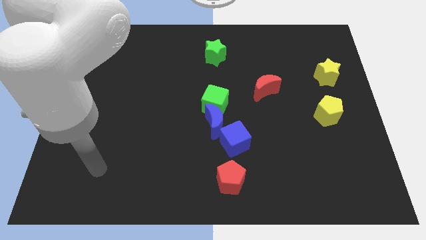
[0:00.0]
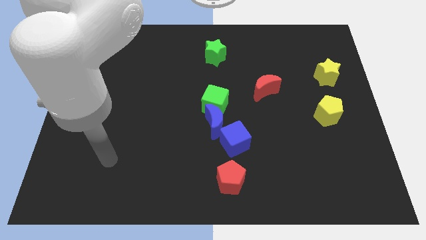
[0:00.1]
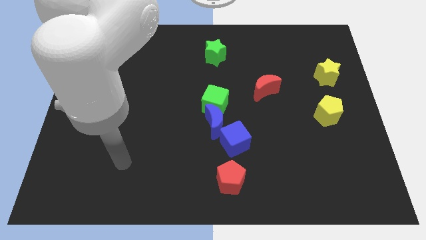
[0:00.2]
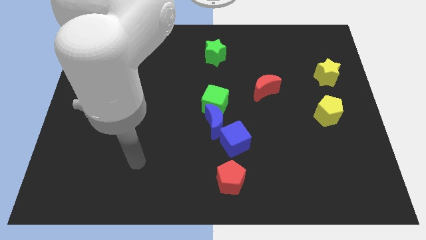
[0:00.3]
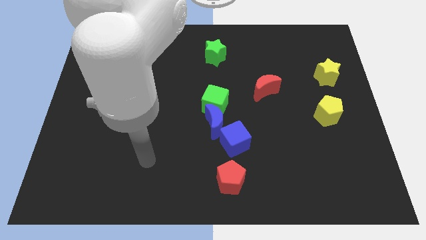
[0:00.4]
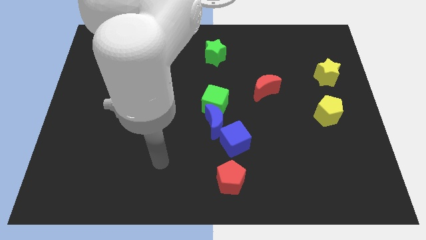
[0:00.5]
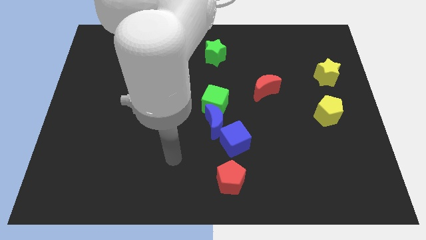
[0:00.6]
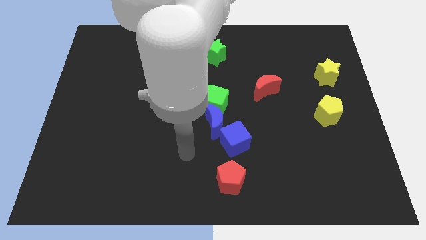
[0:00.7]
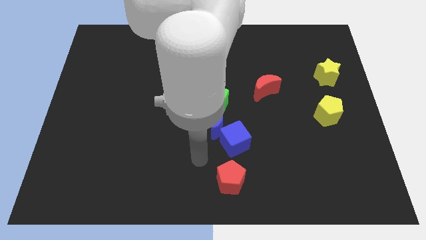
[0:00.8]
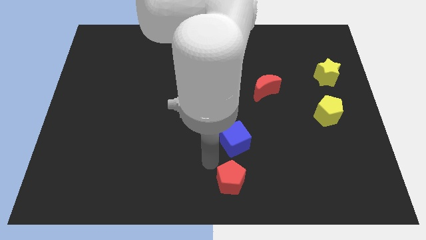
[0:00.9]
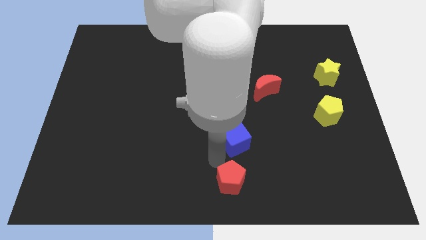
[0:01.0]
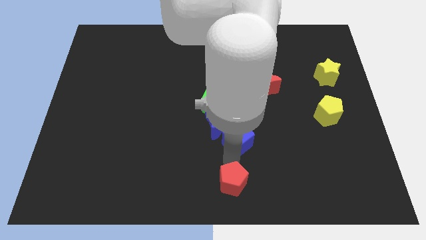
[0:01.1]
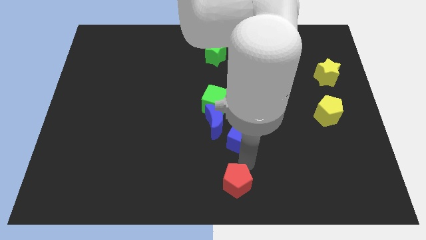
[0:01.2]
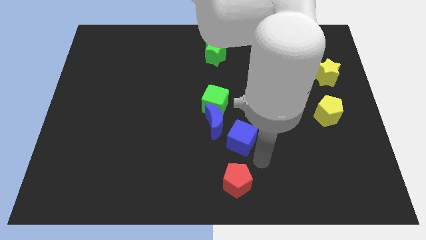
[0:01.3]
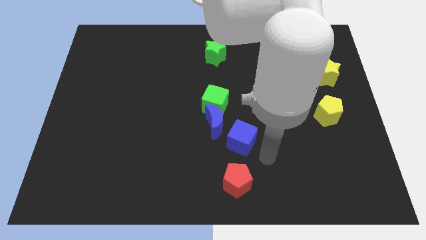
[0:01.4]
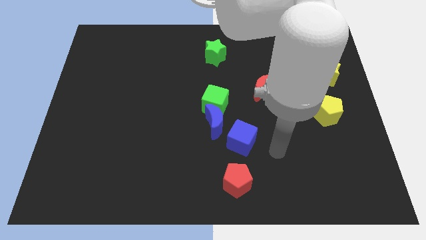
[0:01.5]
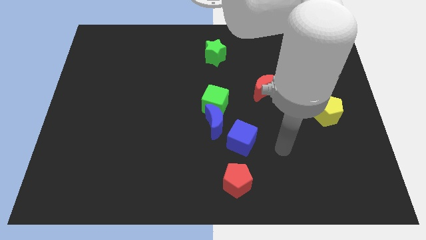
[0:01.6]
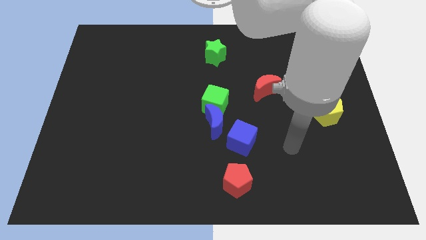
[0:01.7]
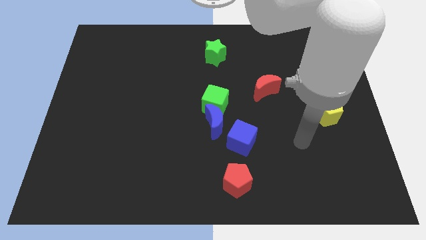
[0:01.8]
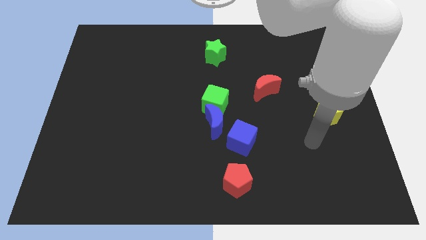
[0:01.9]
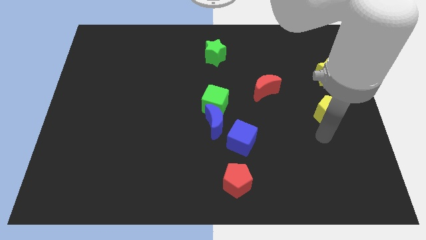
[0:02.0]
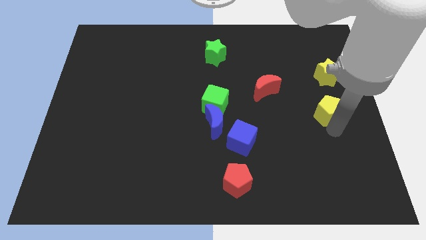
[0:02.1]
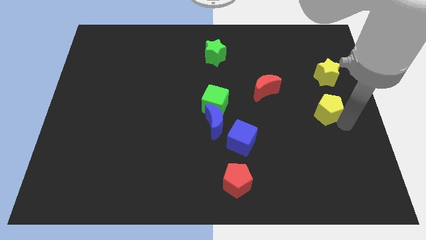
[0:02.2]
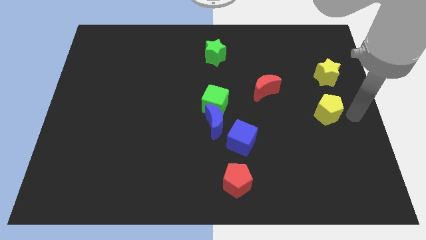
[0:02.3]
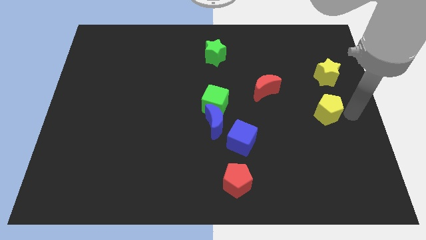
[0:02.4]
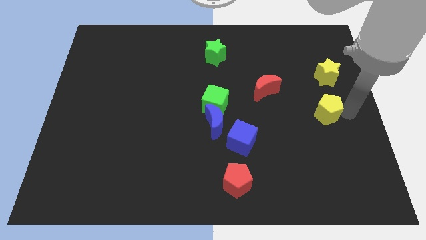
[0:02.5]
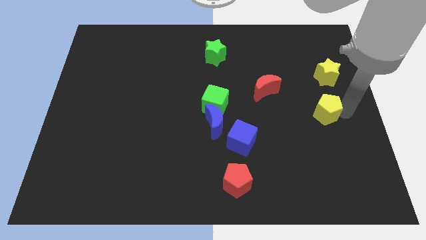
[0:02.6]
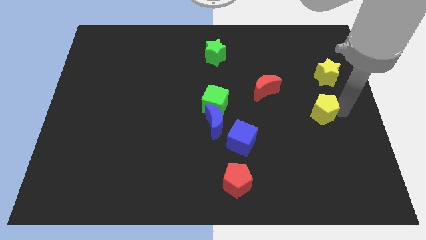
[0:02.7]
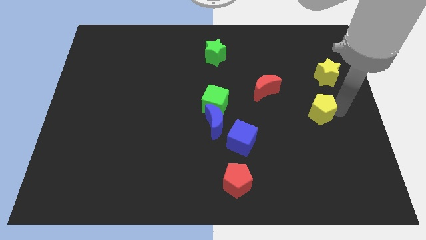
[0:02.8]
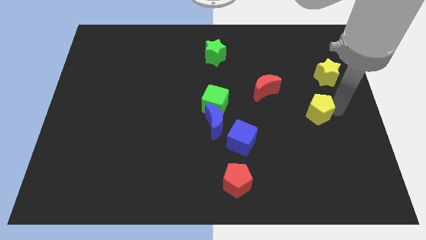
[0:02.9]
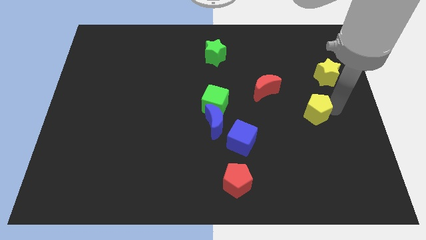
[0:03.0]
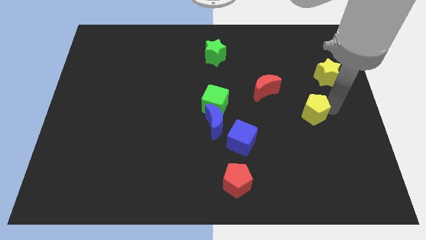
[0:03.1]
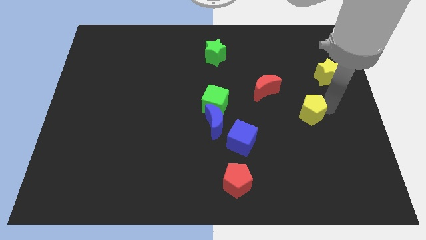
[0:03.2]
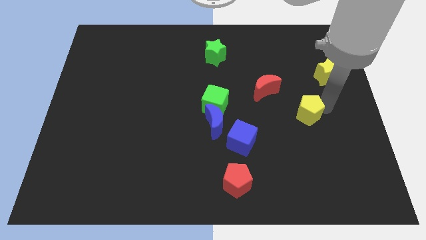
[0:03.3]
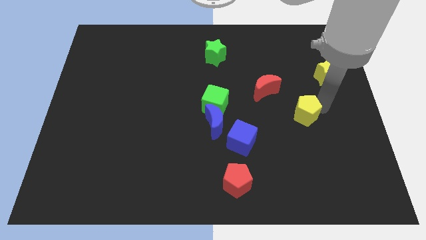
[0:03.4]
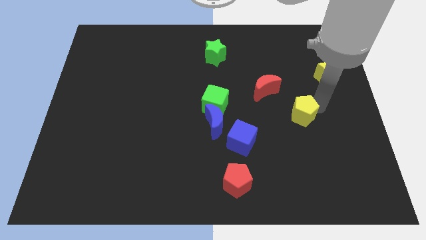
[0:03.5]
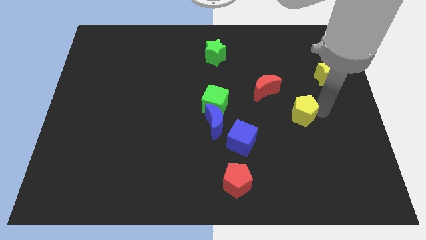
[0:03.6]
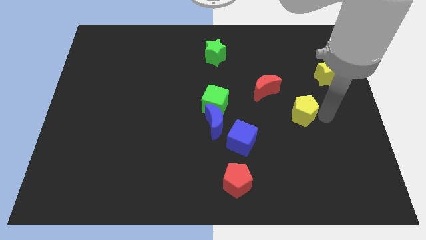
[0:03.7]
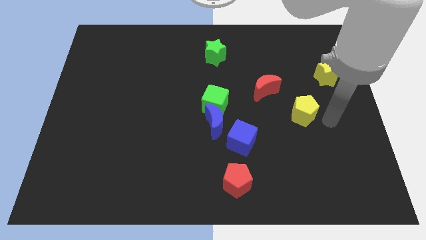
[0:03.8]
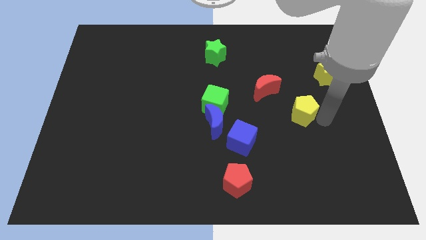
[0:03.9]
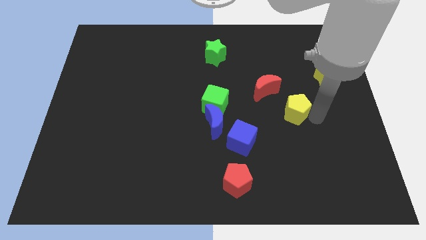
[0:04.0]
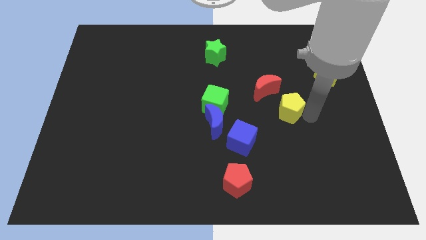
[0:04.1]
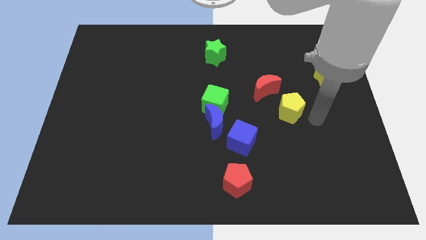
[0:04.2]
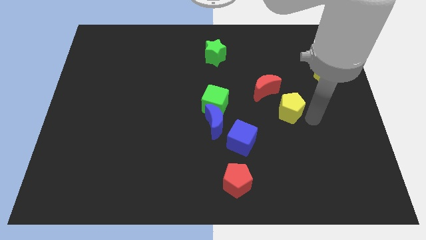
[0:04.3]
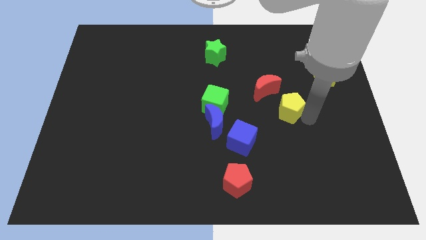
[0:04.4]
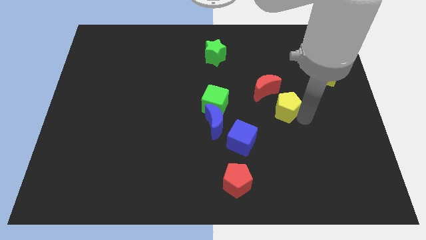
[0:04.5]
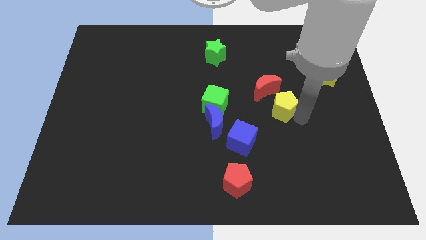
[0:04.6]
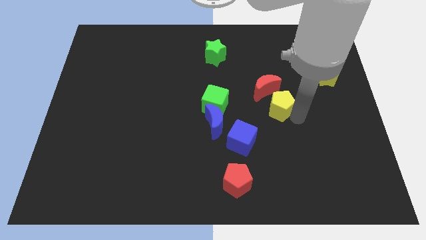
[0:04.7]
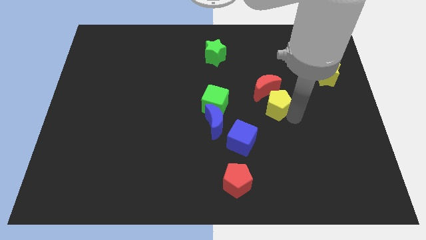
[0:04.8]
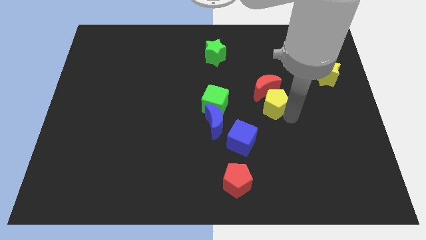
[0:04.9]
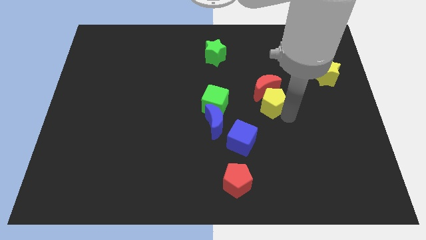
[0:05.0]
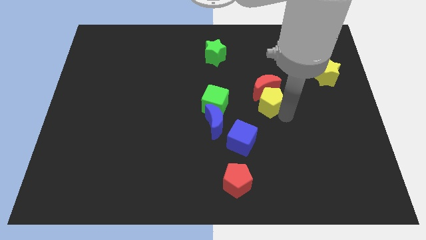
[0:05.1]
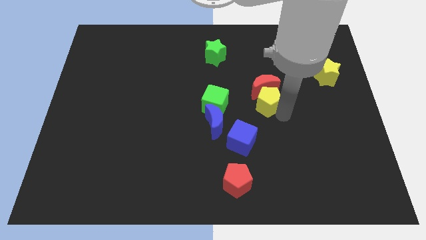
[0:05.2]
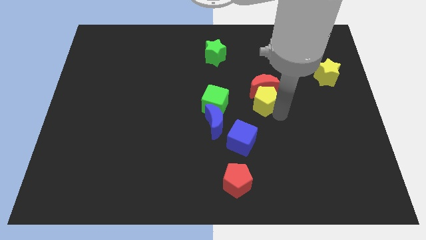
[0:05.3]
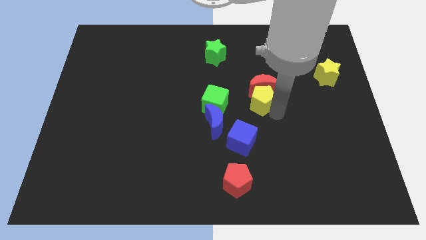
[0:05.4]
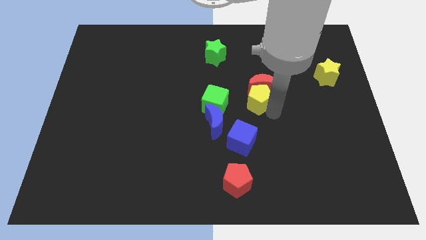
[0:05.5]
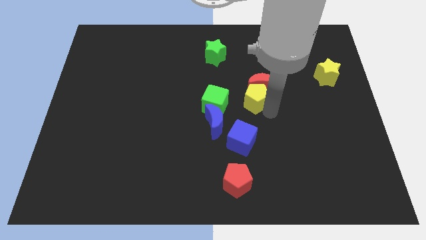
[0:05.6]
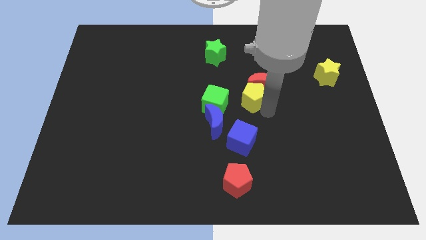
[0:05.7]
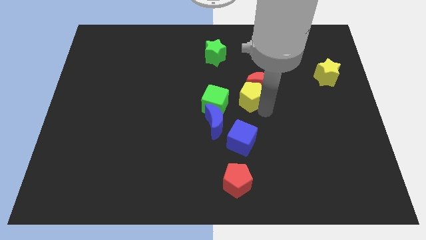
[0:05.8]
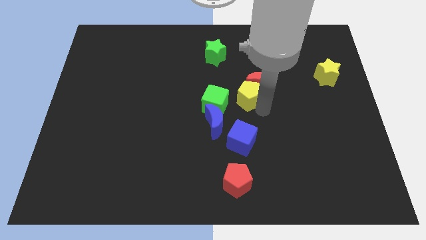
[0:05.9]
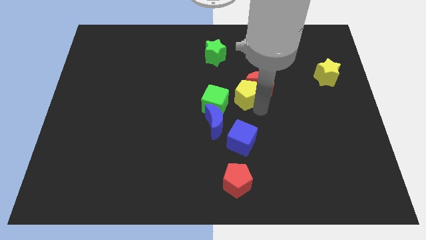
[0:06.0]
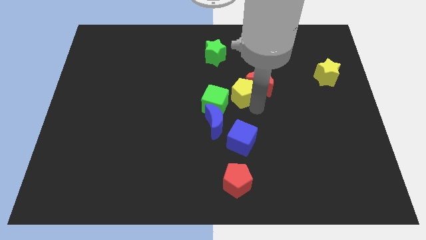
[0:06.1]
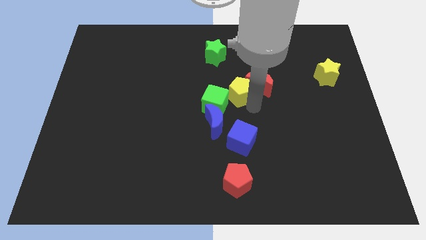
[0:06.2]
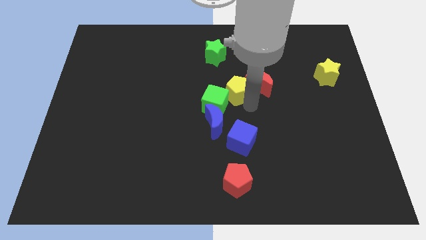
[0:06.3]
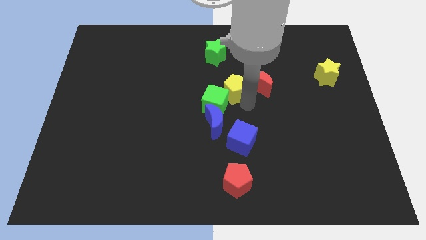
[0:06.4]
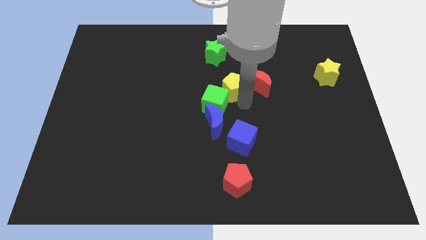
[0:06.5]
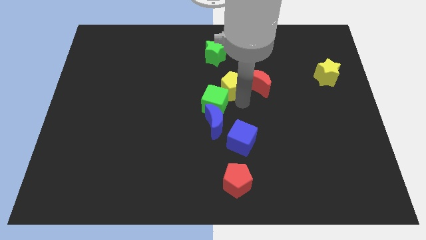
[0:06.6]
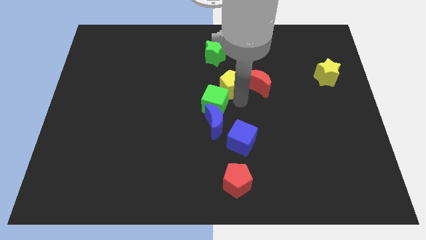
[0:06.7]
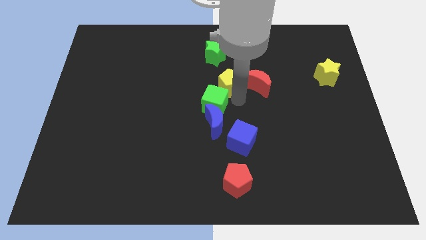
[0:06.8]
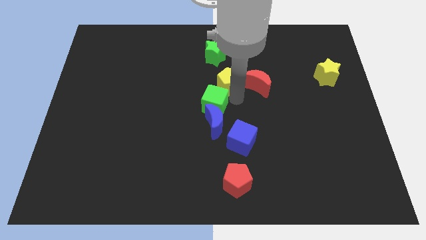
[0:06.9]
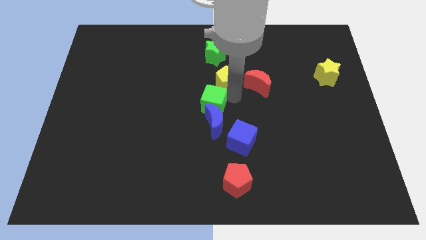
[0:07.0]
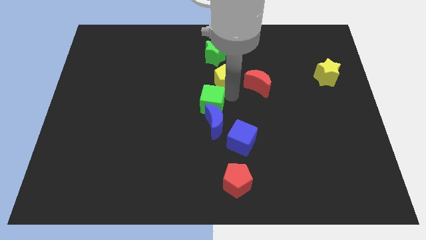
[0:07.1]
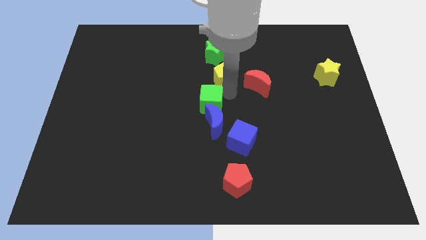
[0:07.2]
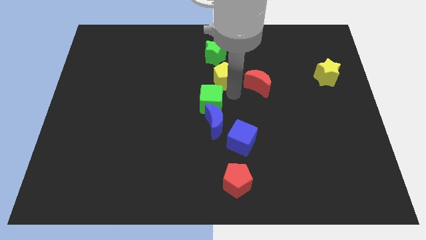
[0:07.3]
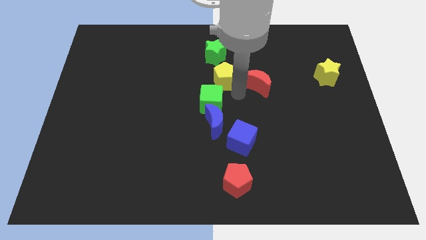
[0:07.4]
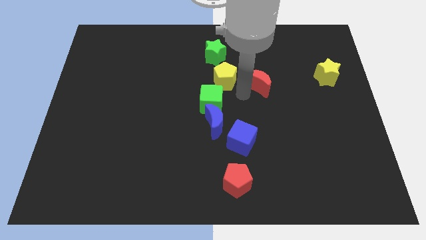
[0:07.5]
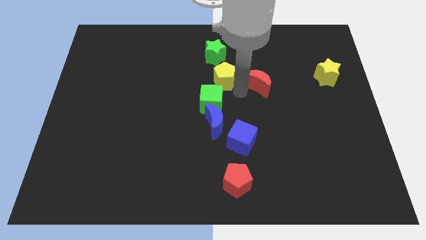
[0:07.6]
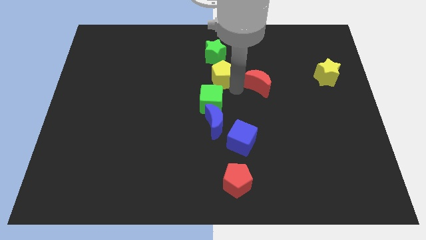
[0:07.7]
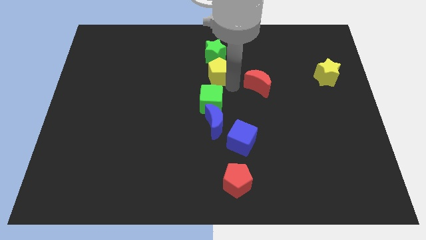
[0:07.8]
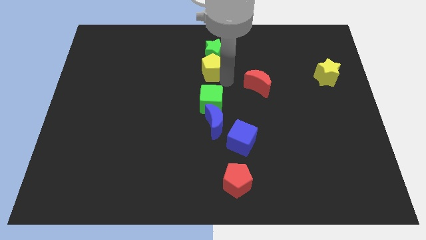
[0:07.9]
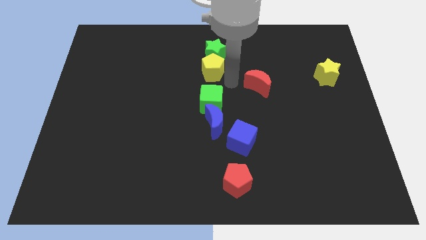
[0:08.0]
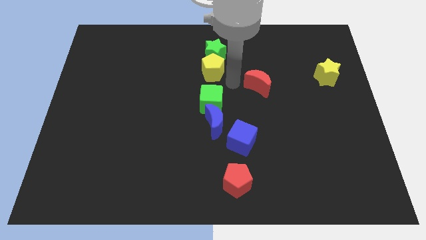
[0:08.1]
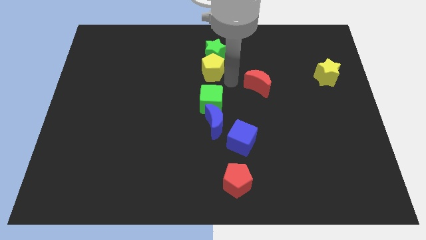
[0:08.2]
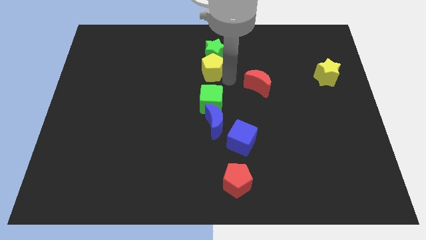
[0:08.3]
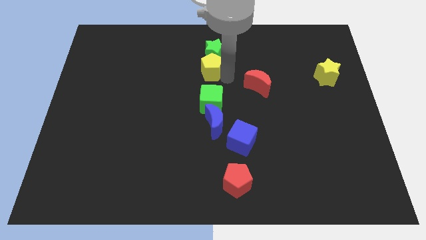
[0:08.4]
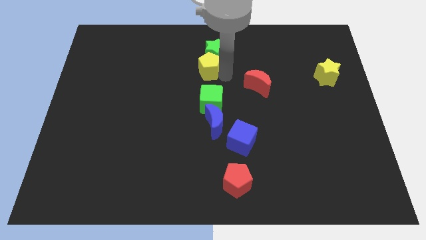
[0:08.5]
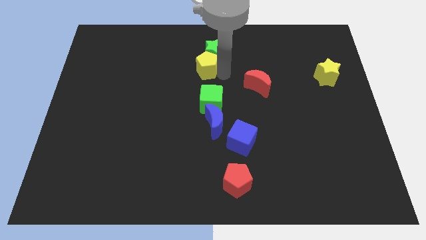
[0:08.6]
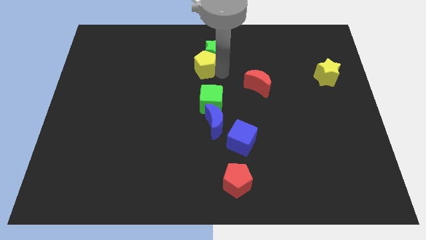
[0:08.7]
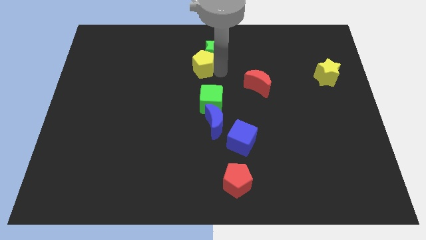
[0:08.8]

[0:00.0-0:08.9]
put the yellow pentagon to the left of the green star
